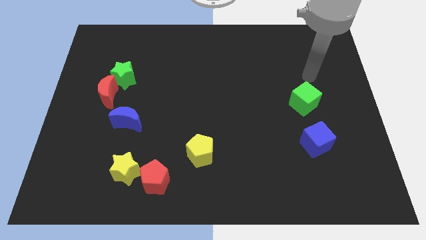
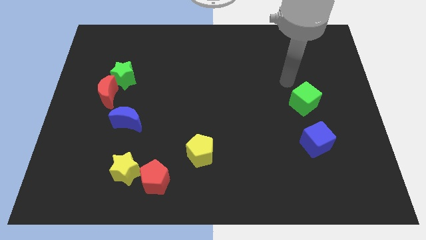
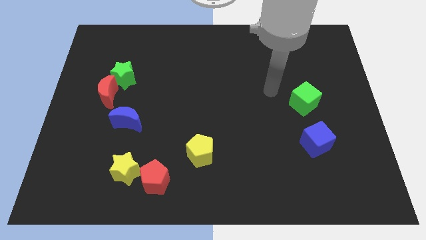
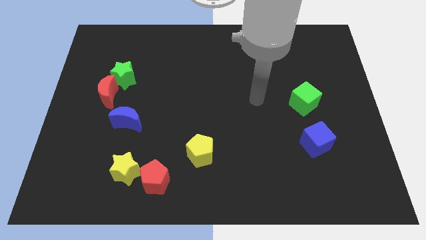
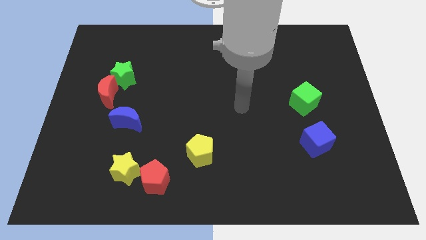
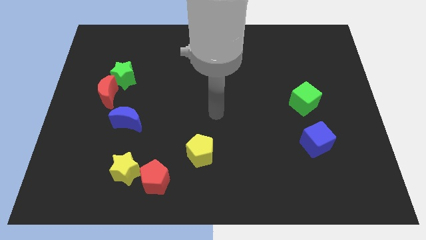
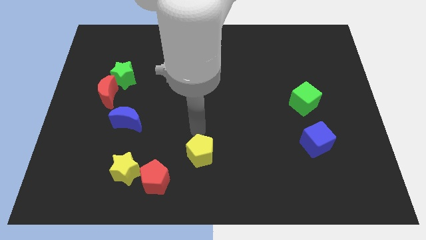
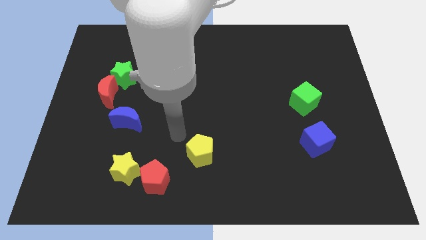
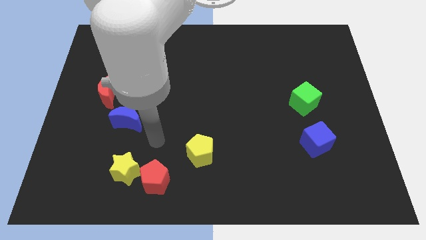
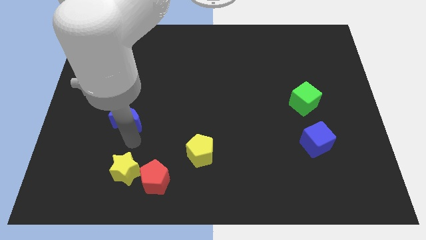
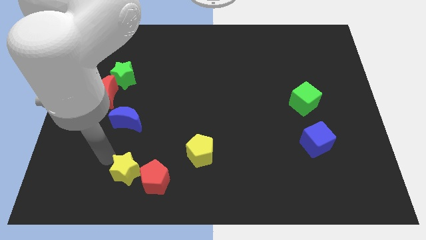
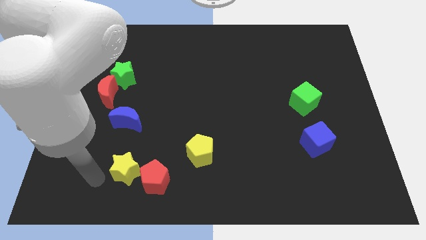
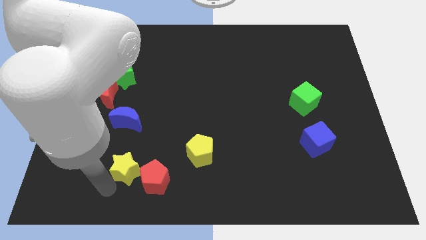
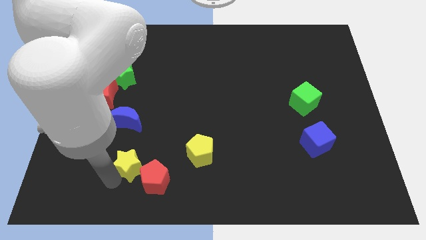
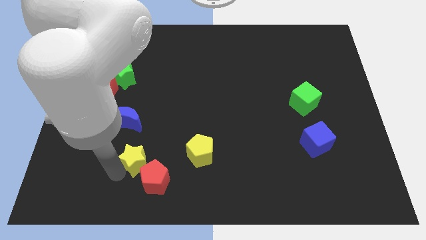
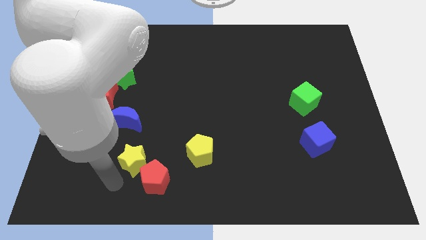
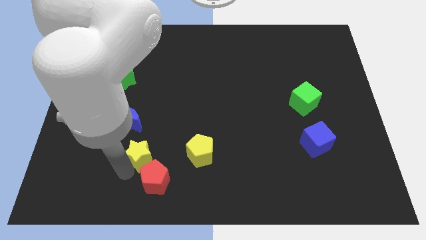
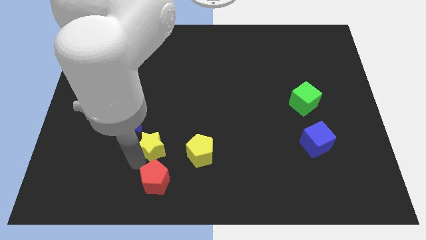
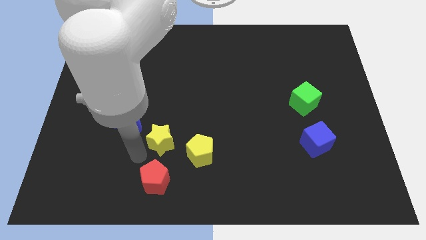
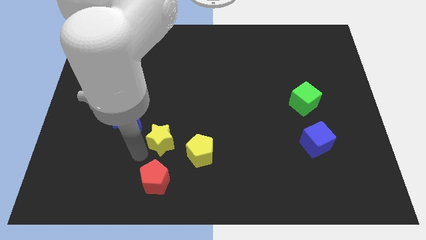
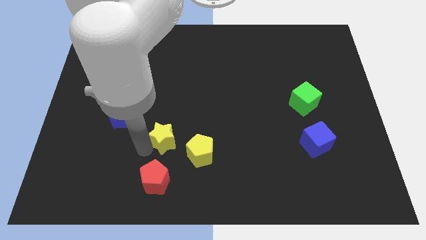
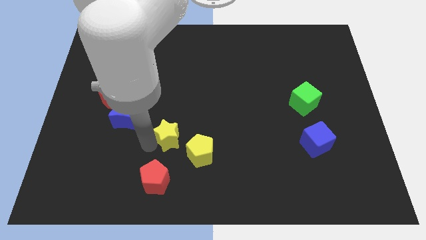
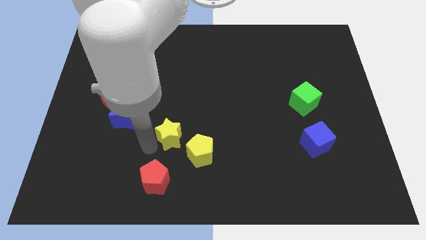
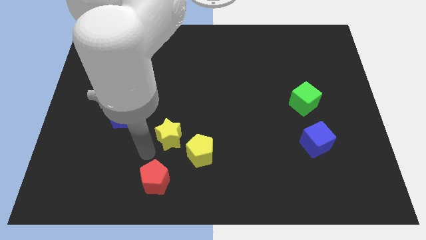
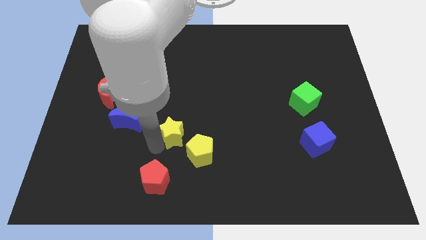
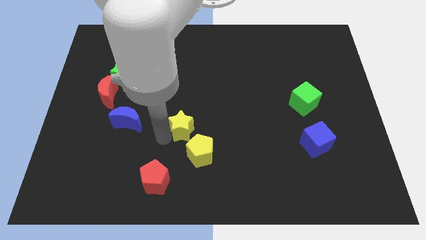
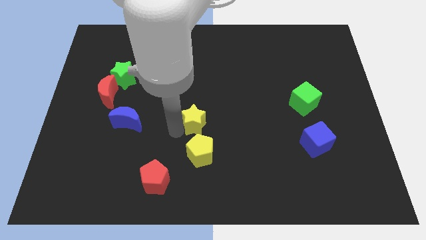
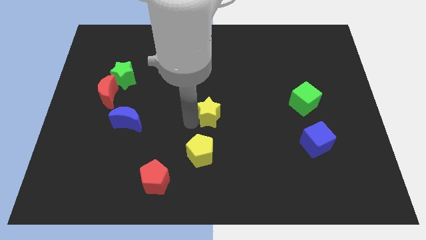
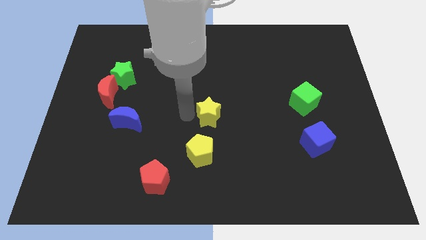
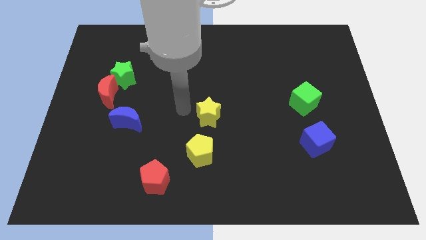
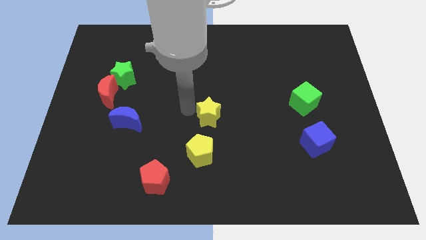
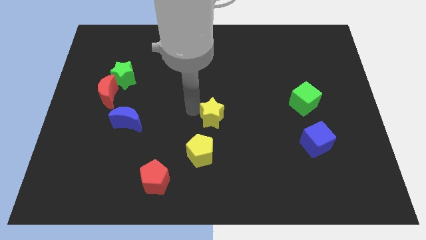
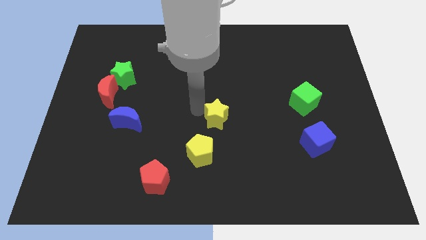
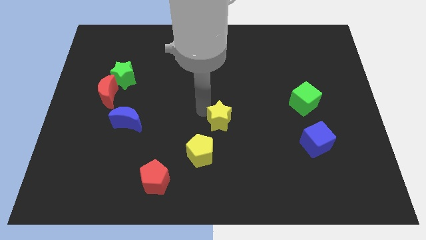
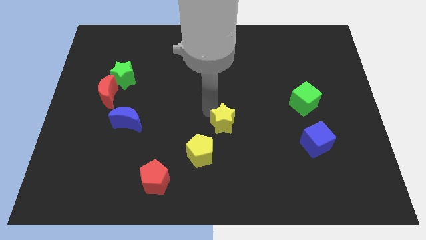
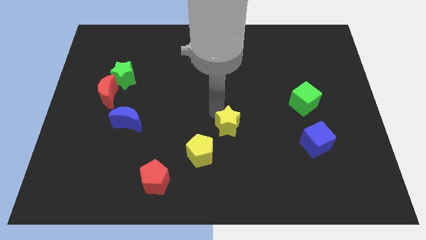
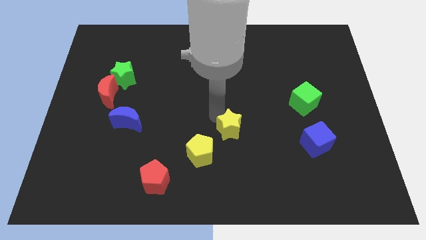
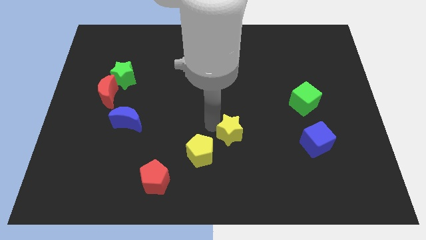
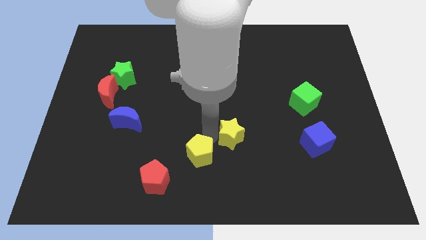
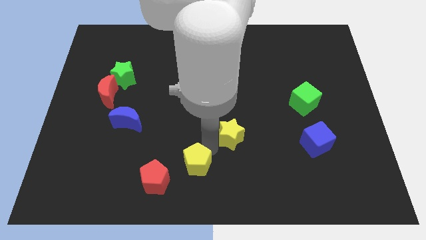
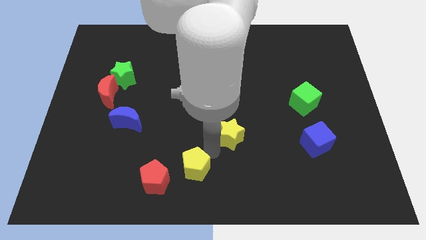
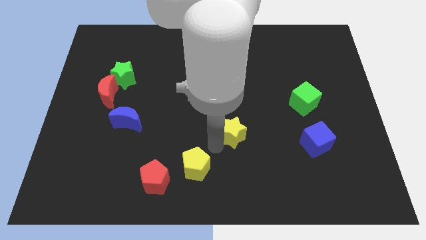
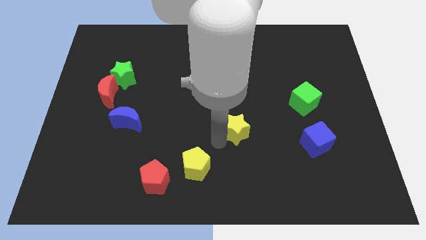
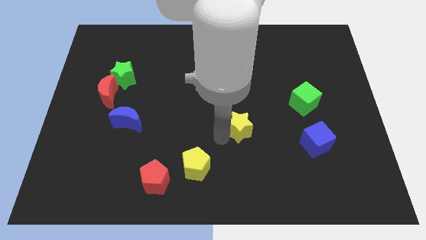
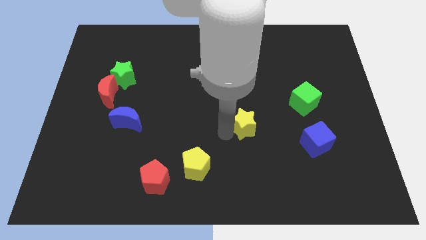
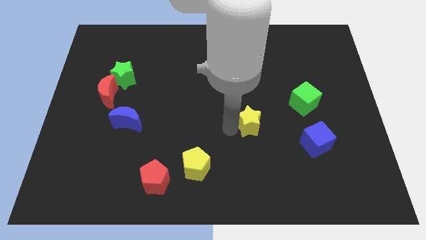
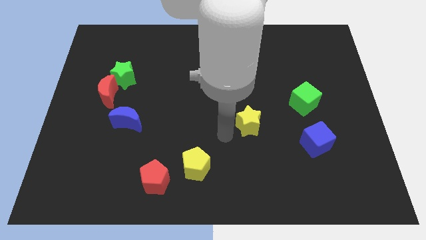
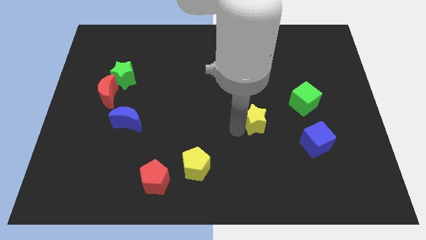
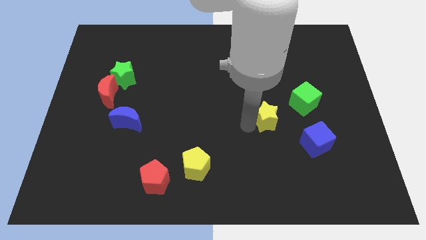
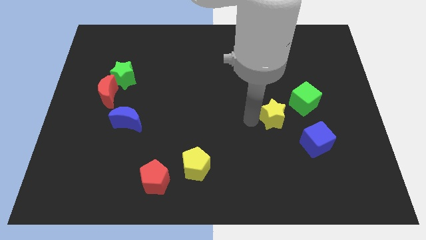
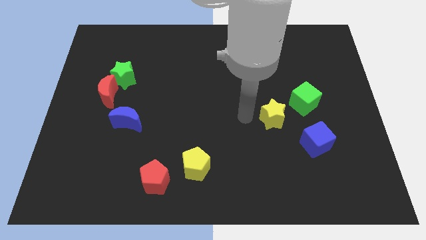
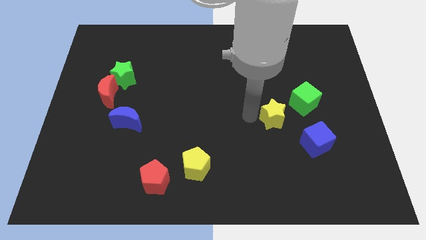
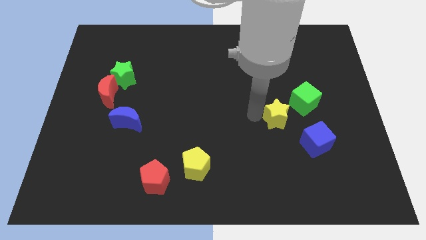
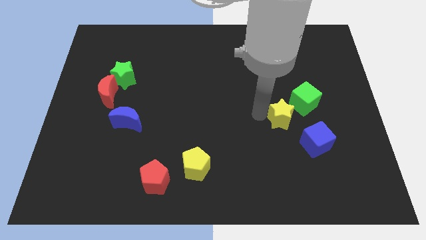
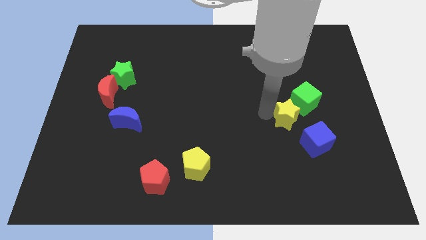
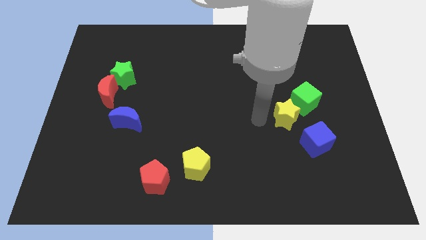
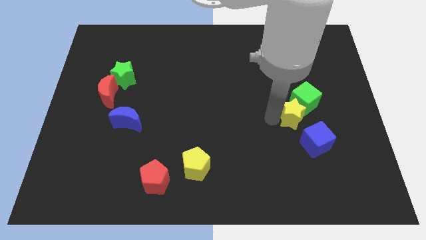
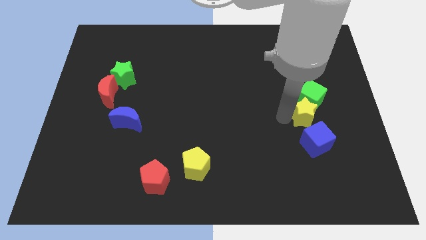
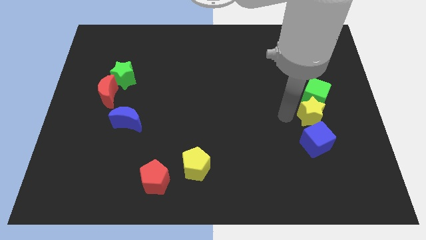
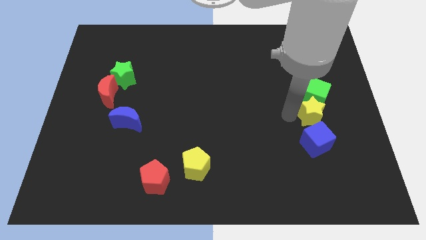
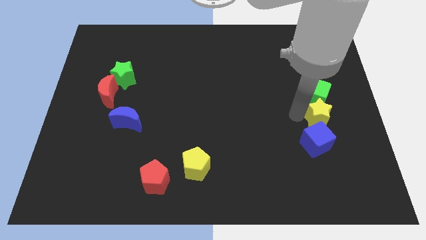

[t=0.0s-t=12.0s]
put the yellow star diagonally down and to the right of the green cube
